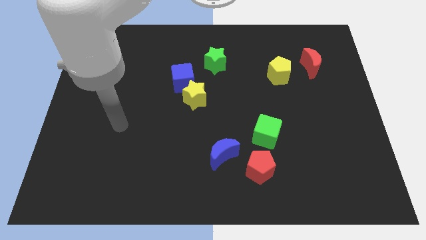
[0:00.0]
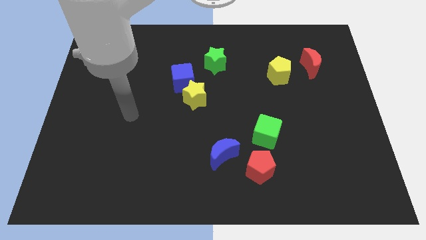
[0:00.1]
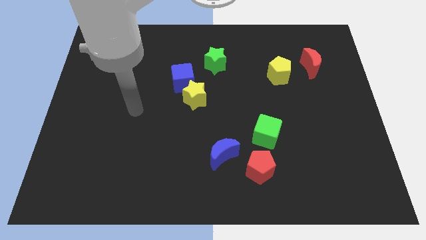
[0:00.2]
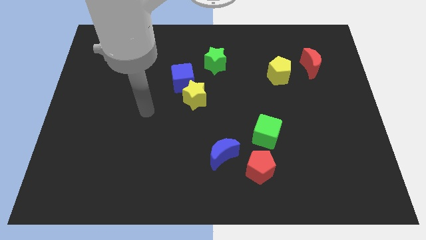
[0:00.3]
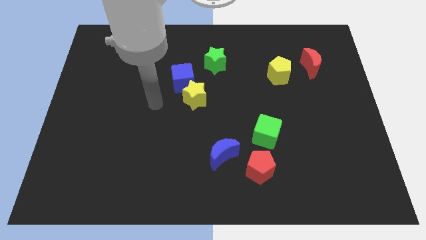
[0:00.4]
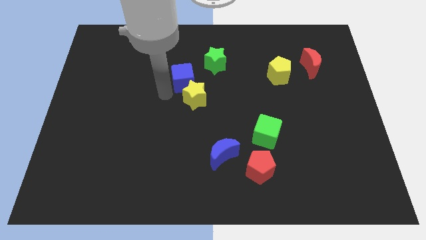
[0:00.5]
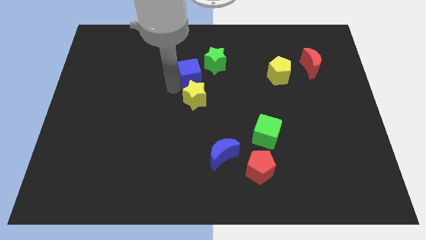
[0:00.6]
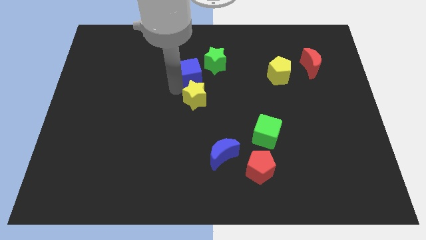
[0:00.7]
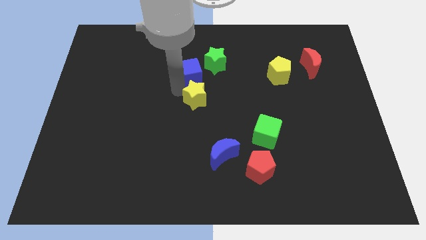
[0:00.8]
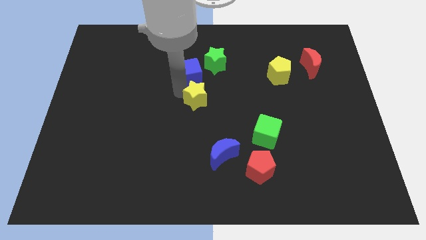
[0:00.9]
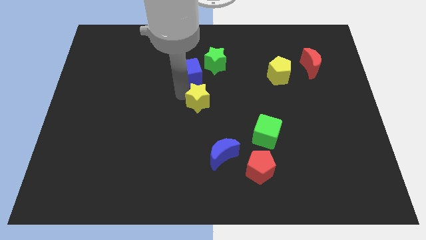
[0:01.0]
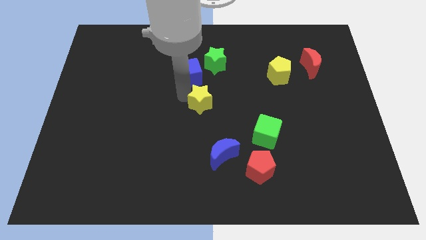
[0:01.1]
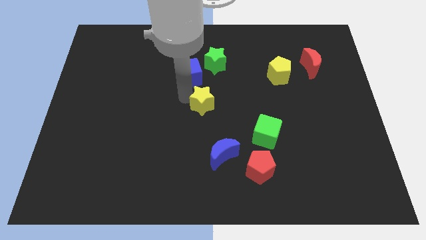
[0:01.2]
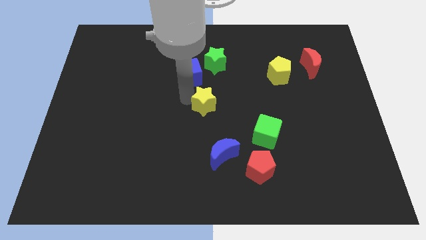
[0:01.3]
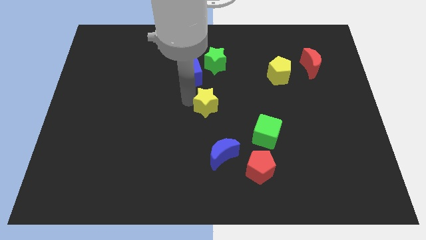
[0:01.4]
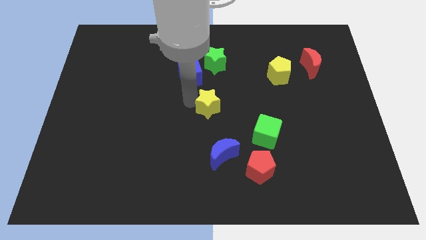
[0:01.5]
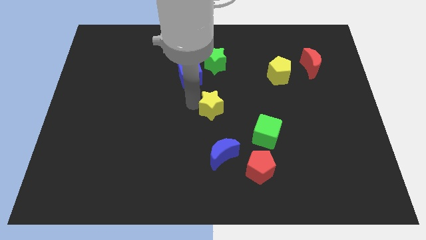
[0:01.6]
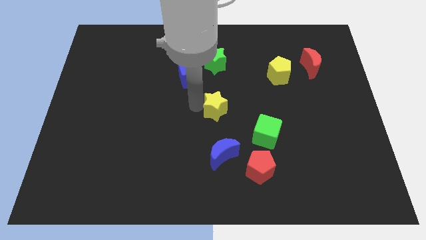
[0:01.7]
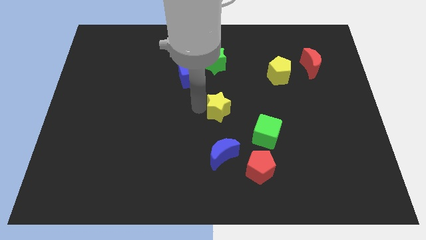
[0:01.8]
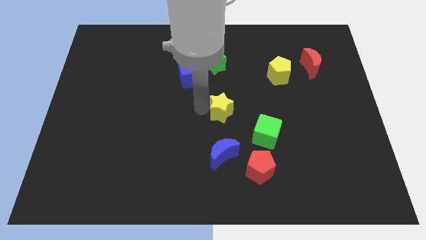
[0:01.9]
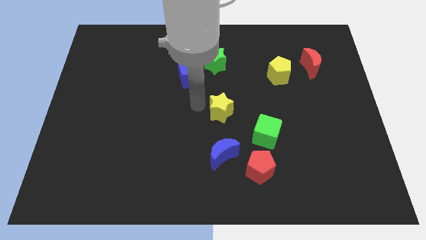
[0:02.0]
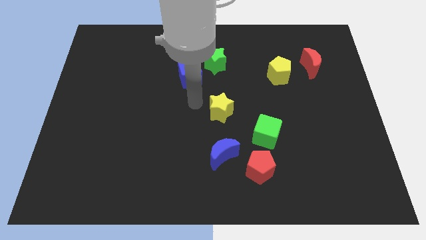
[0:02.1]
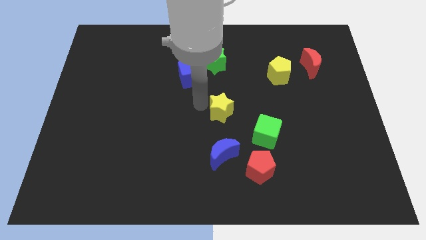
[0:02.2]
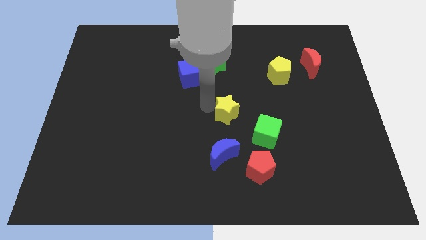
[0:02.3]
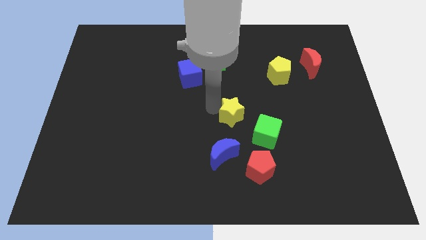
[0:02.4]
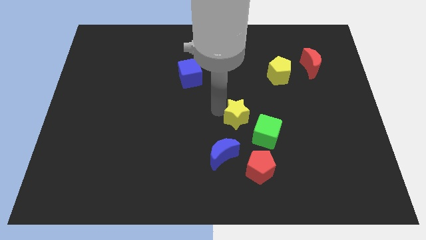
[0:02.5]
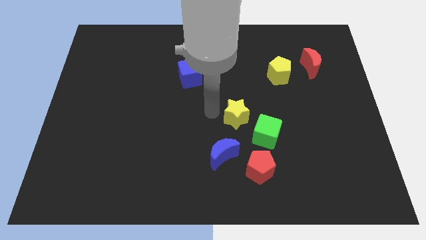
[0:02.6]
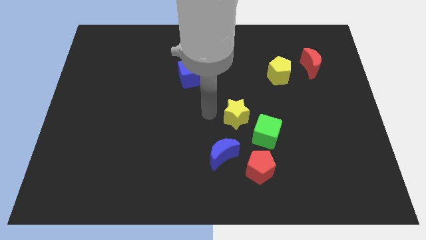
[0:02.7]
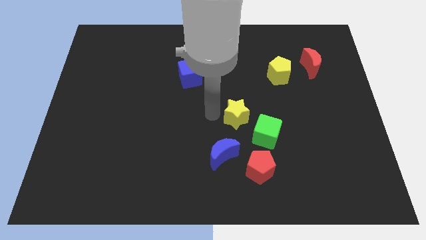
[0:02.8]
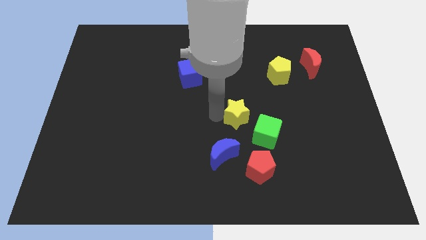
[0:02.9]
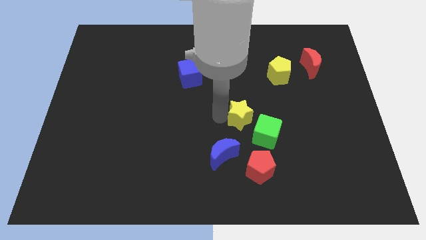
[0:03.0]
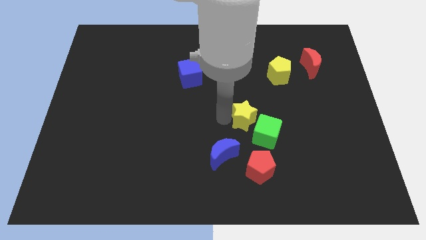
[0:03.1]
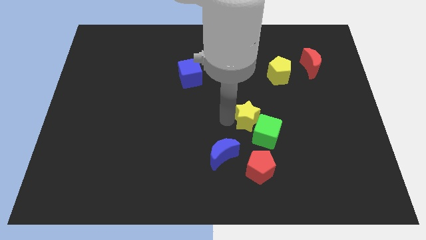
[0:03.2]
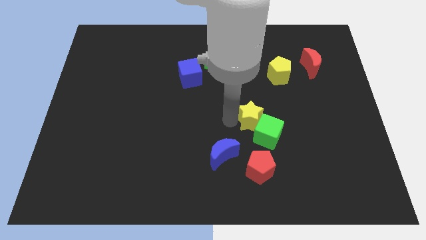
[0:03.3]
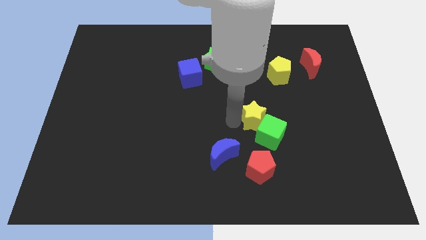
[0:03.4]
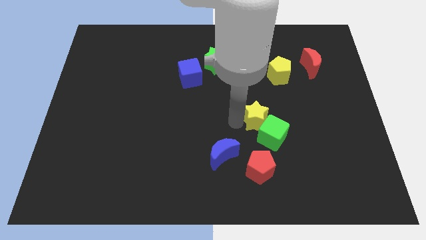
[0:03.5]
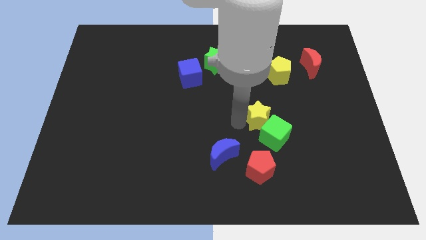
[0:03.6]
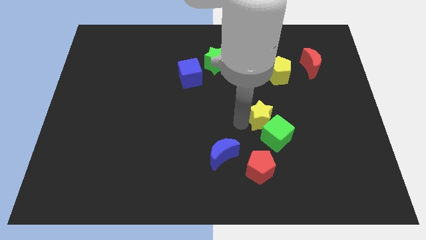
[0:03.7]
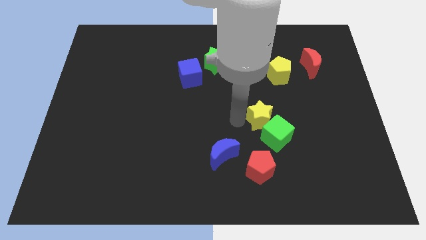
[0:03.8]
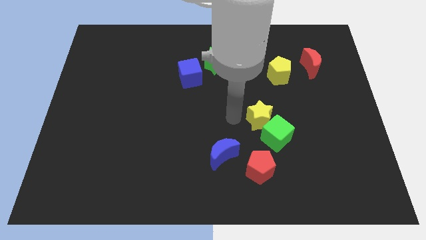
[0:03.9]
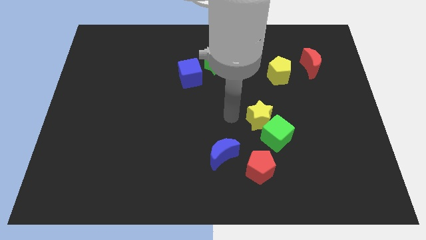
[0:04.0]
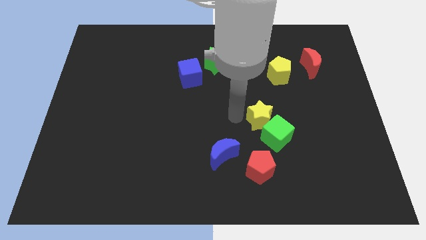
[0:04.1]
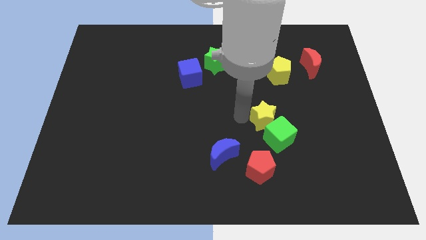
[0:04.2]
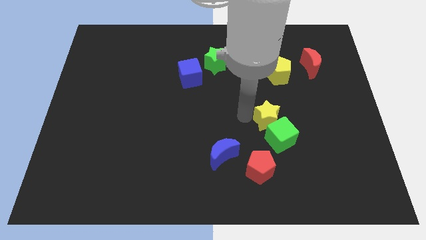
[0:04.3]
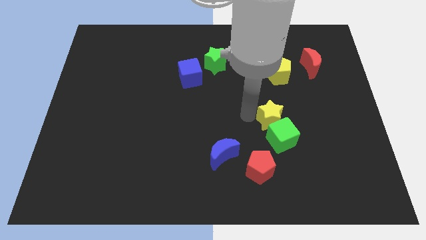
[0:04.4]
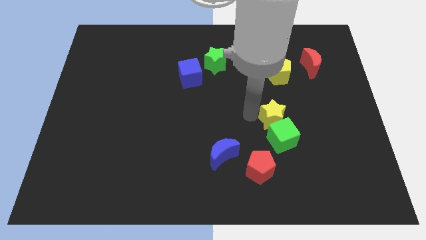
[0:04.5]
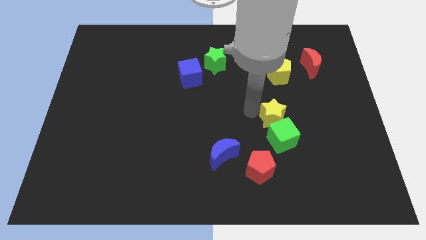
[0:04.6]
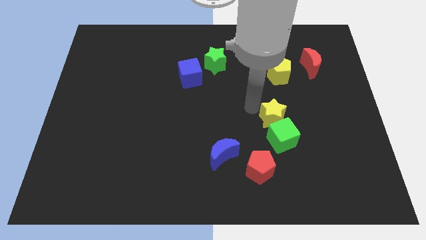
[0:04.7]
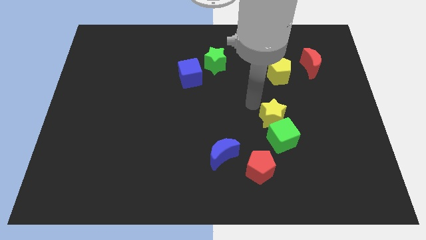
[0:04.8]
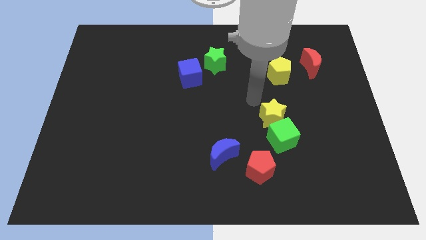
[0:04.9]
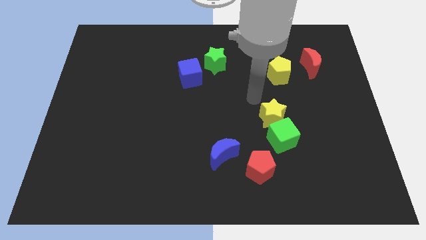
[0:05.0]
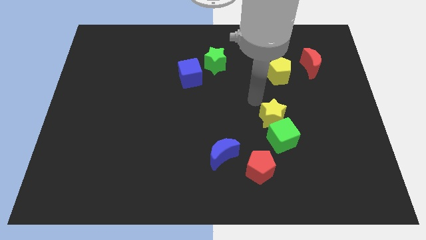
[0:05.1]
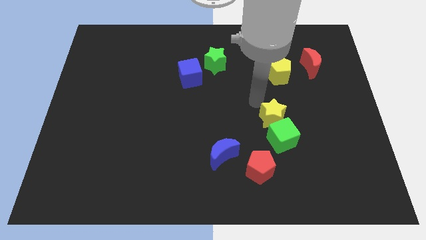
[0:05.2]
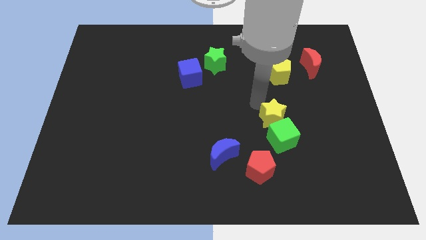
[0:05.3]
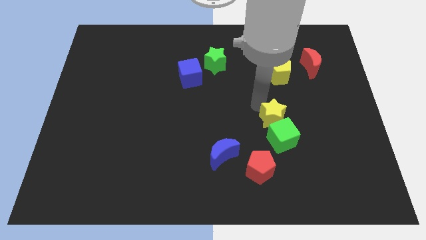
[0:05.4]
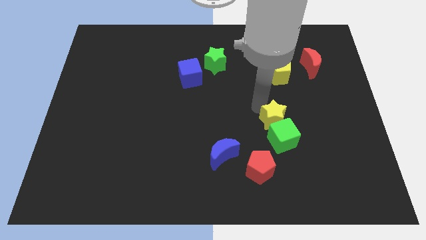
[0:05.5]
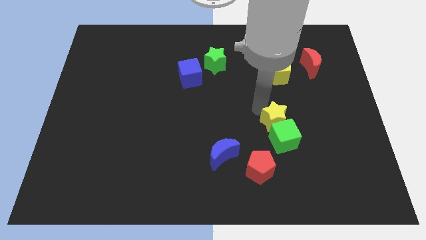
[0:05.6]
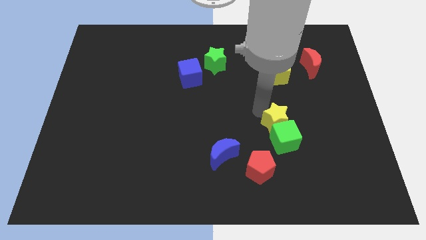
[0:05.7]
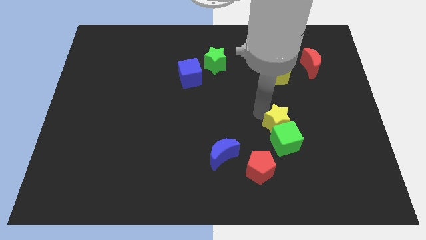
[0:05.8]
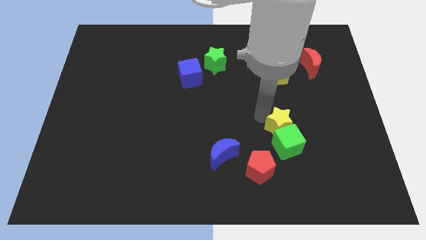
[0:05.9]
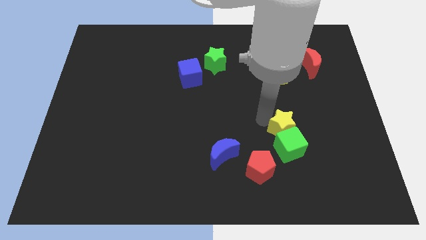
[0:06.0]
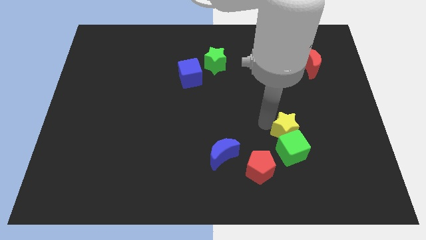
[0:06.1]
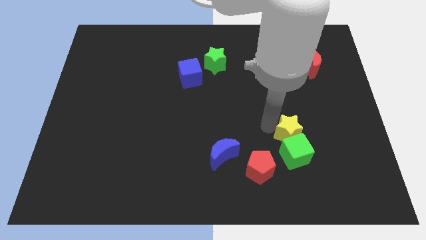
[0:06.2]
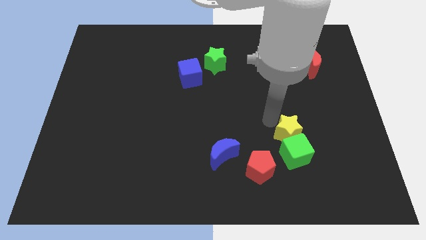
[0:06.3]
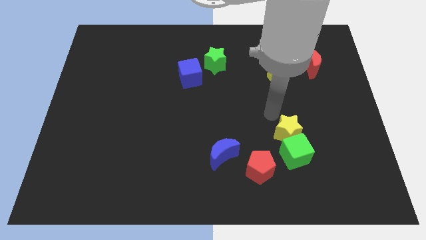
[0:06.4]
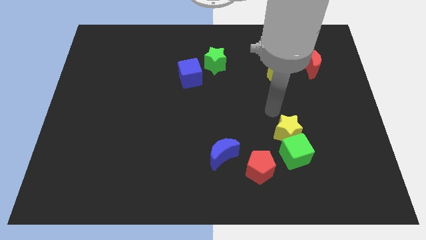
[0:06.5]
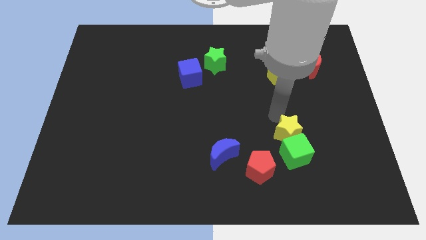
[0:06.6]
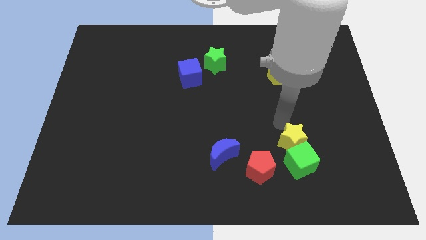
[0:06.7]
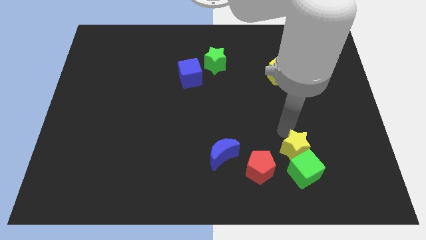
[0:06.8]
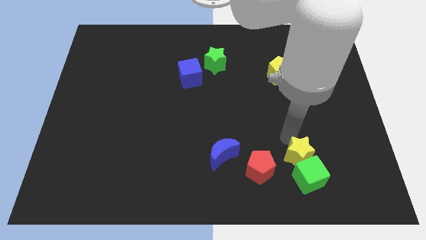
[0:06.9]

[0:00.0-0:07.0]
push the yellow star just right of the red pentagon
